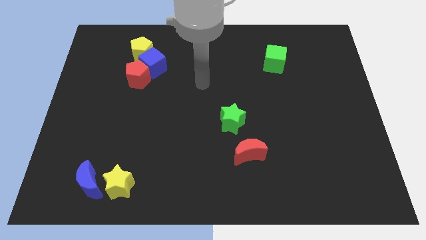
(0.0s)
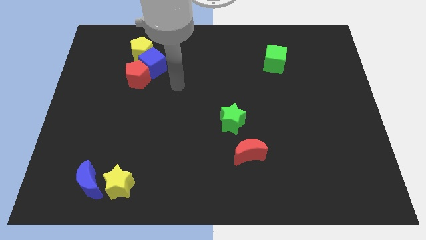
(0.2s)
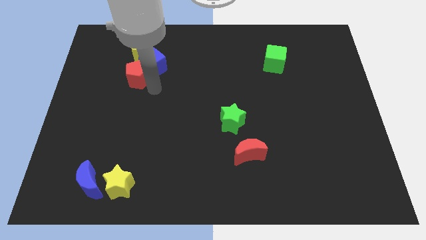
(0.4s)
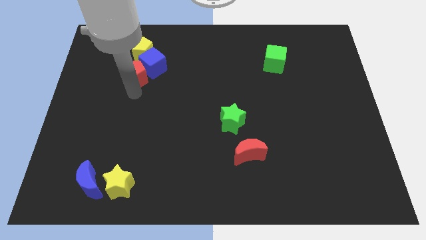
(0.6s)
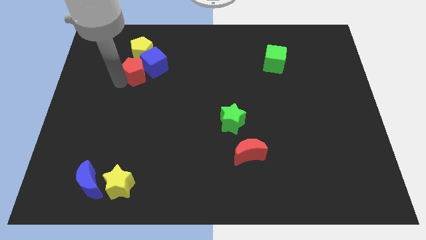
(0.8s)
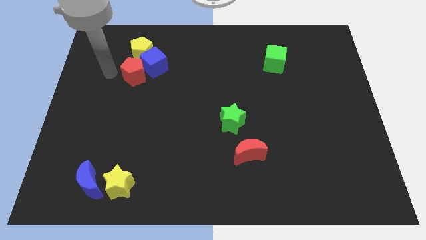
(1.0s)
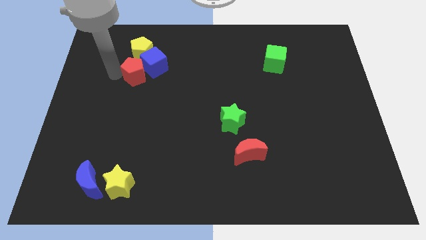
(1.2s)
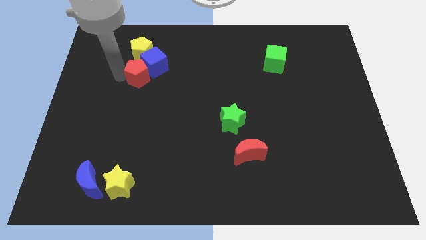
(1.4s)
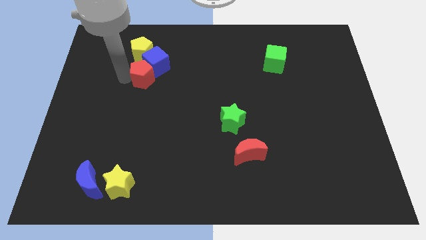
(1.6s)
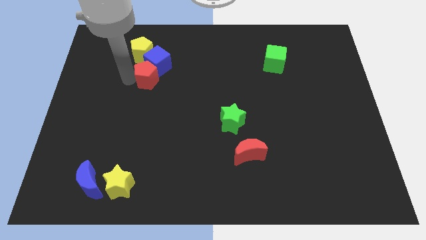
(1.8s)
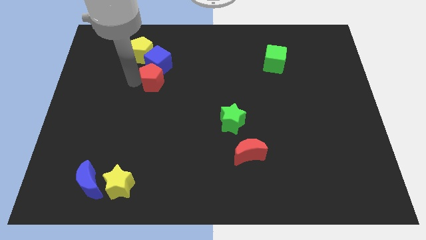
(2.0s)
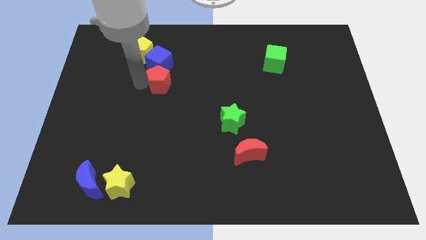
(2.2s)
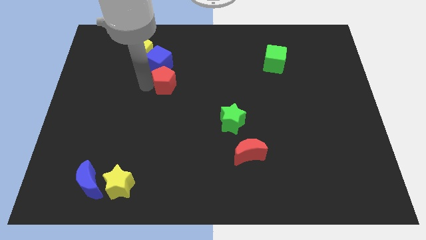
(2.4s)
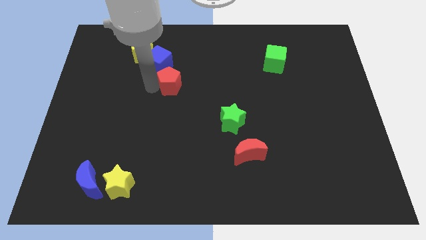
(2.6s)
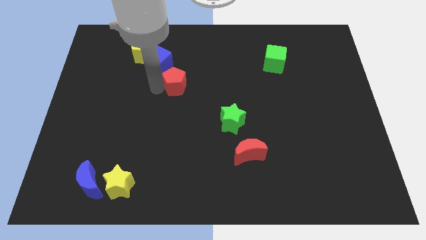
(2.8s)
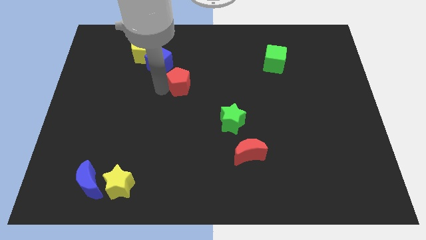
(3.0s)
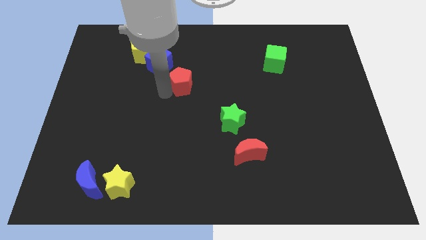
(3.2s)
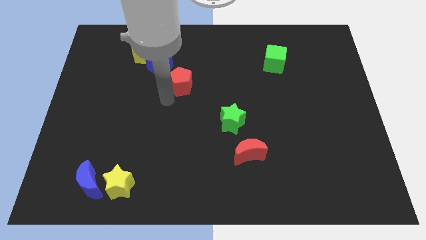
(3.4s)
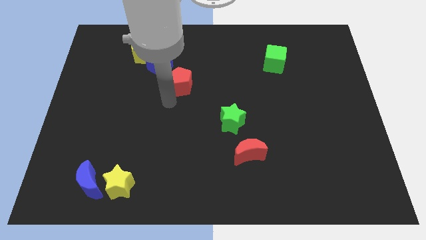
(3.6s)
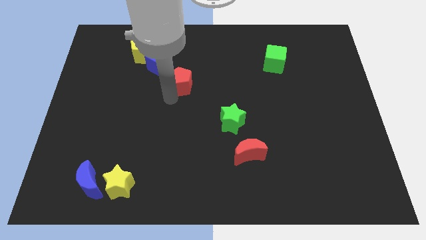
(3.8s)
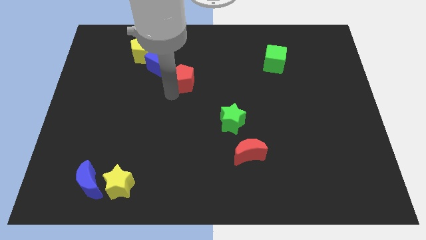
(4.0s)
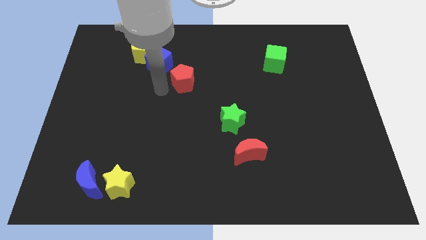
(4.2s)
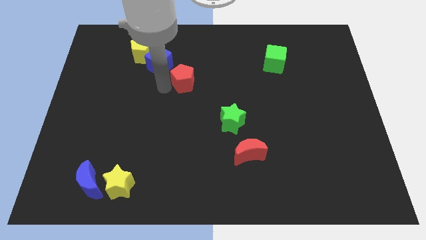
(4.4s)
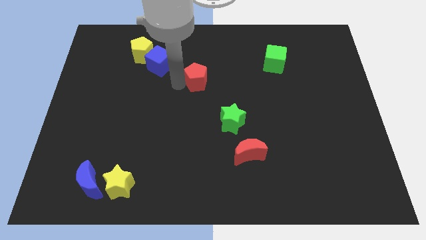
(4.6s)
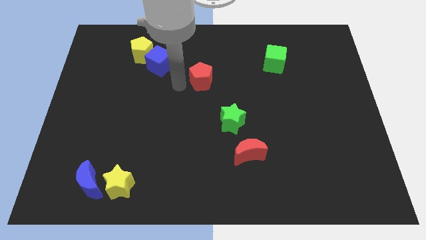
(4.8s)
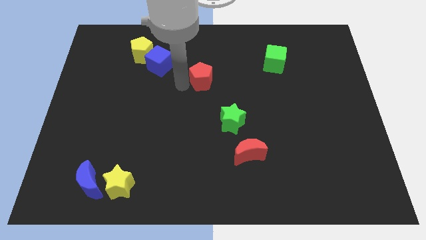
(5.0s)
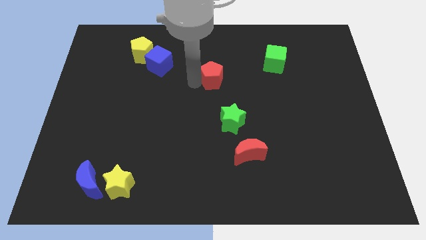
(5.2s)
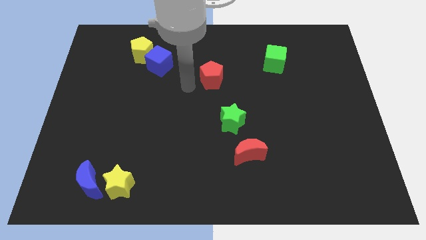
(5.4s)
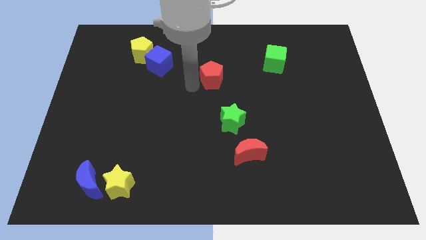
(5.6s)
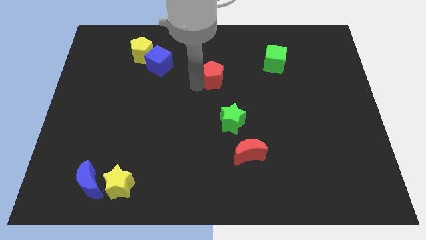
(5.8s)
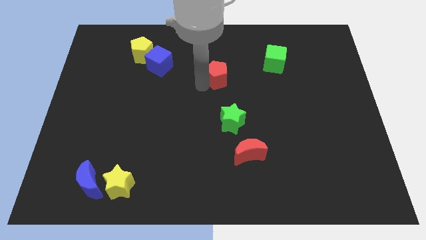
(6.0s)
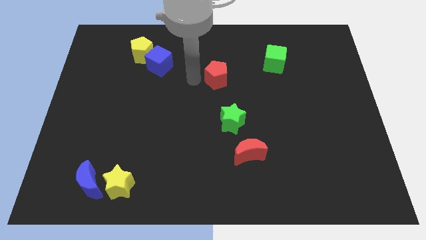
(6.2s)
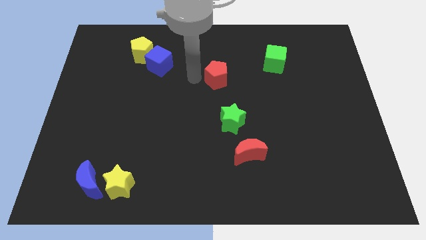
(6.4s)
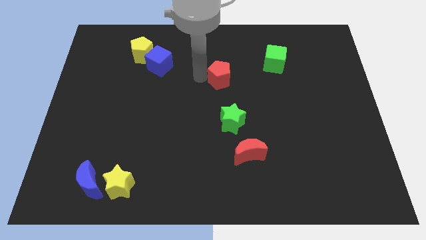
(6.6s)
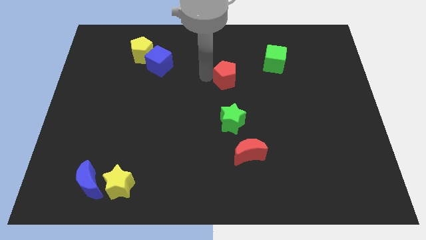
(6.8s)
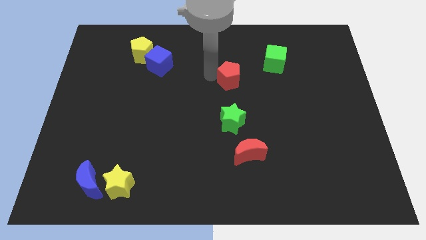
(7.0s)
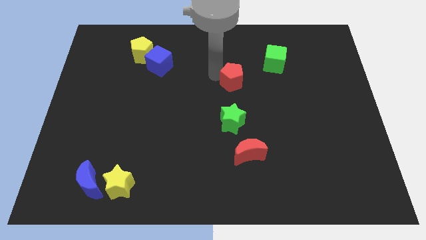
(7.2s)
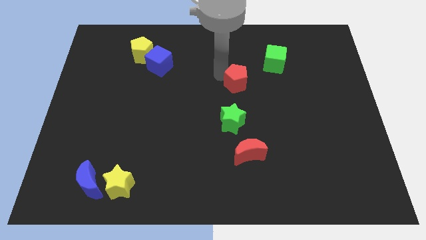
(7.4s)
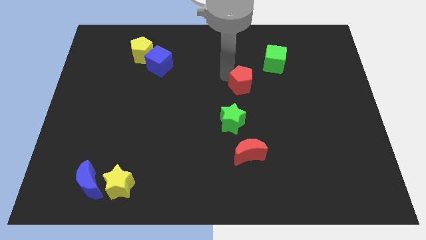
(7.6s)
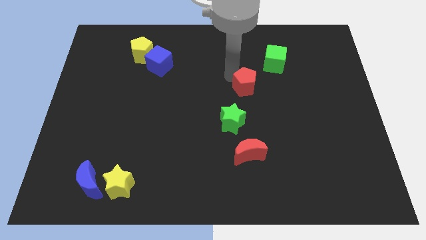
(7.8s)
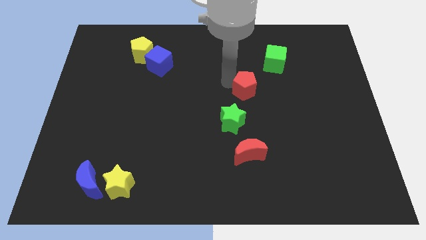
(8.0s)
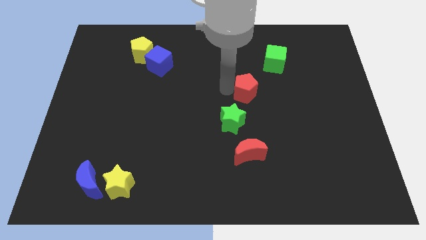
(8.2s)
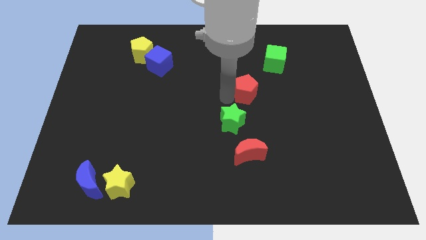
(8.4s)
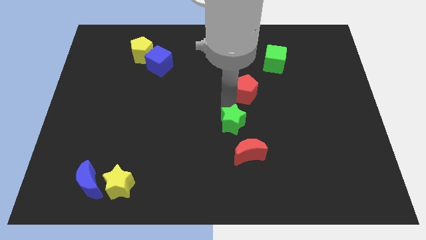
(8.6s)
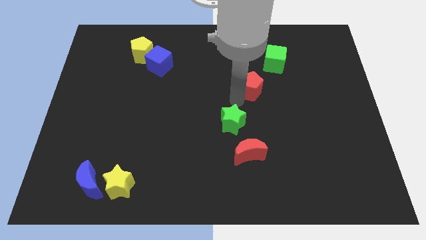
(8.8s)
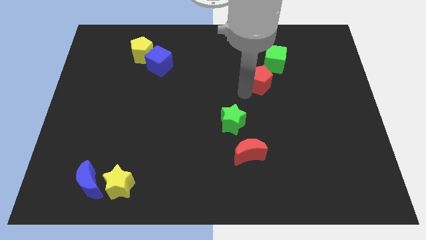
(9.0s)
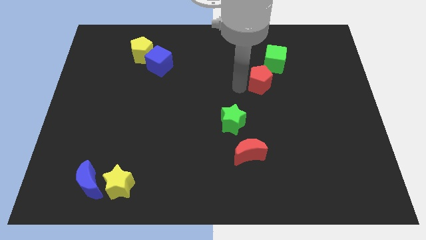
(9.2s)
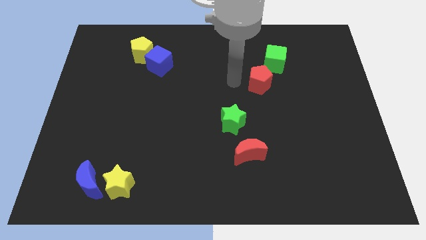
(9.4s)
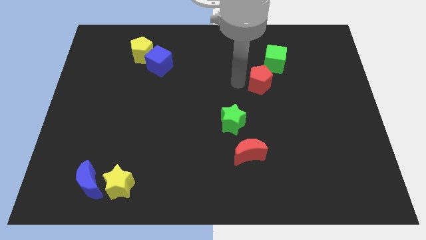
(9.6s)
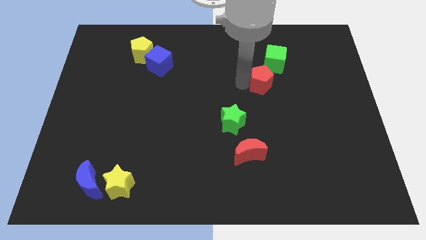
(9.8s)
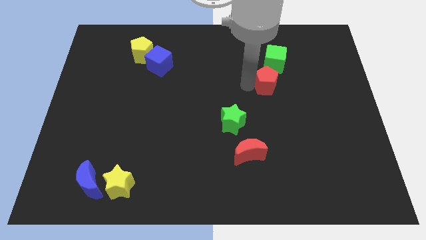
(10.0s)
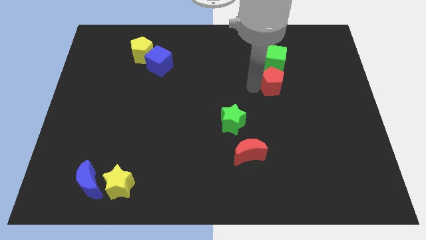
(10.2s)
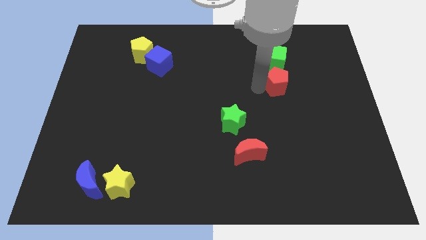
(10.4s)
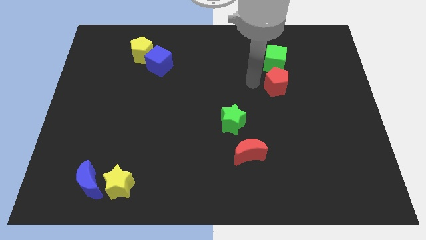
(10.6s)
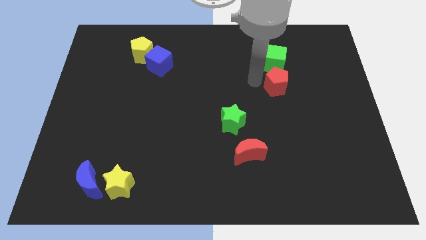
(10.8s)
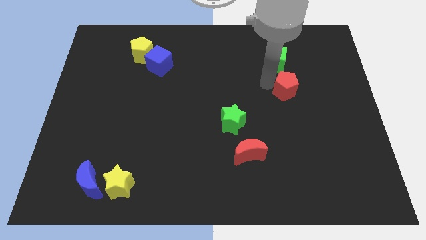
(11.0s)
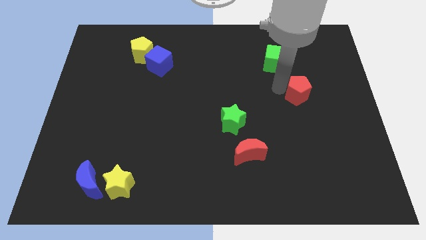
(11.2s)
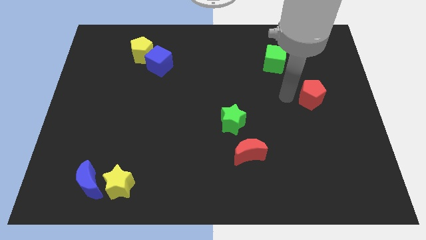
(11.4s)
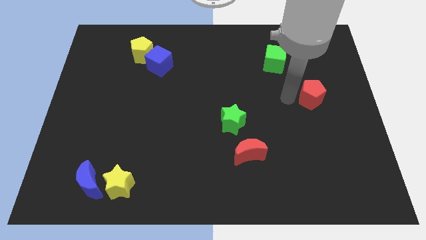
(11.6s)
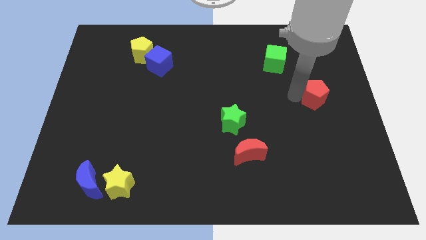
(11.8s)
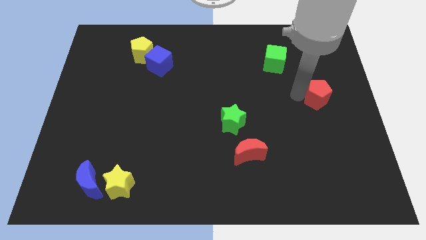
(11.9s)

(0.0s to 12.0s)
put the red pentagon to the center right
